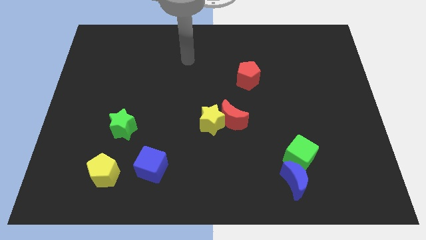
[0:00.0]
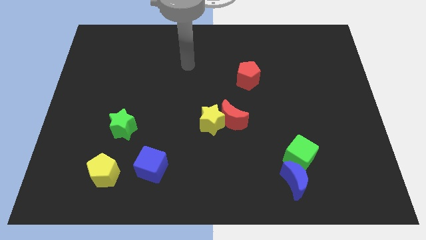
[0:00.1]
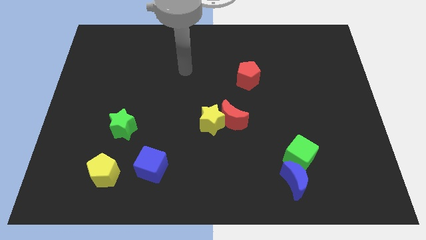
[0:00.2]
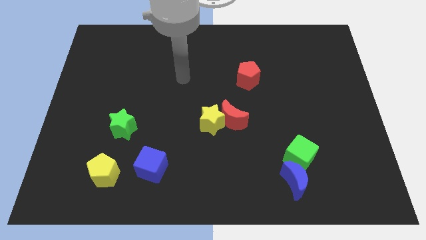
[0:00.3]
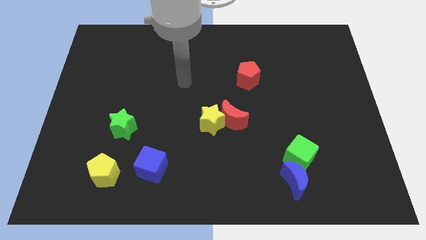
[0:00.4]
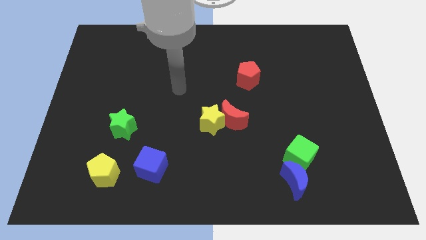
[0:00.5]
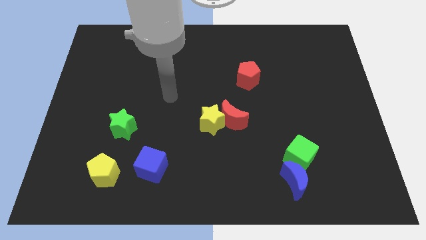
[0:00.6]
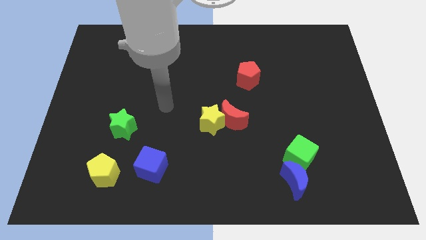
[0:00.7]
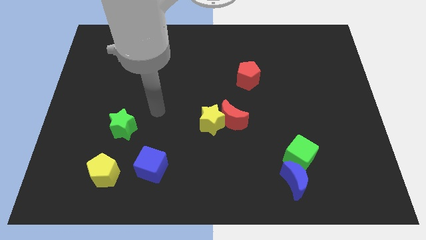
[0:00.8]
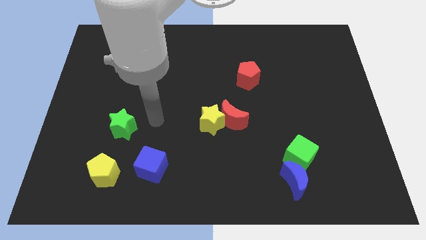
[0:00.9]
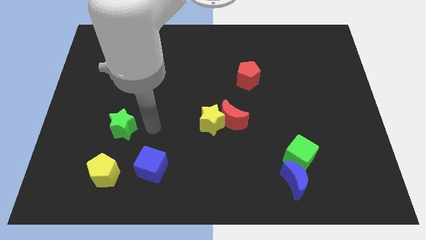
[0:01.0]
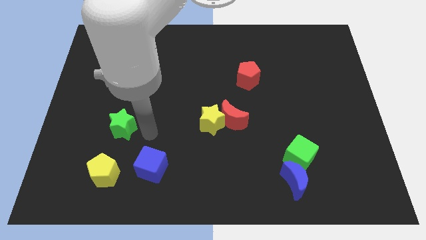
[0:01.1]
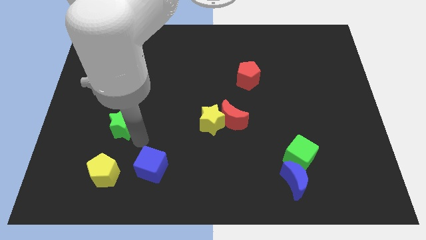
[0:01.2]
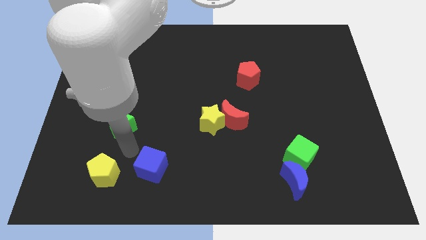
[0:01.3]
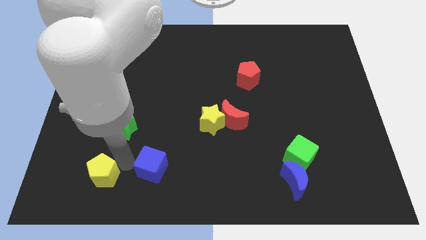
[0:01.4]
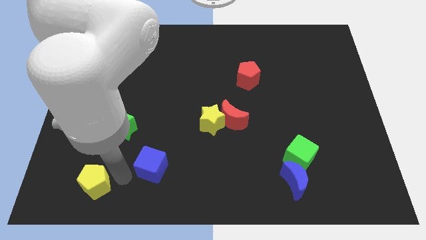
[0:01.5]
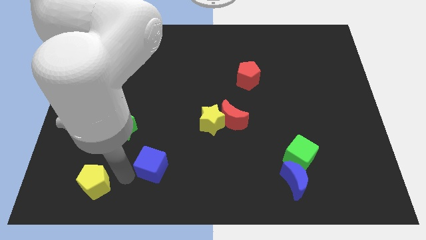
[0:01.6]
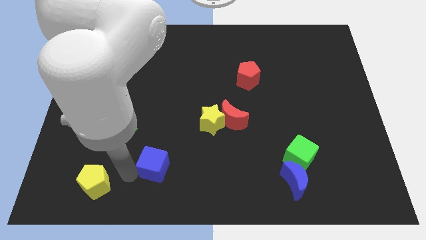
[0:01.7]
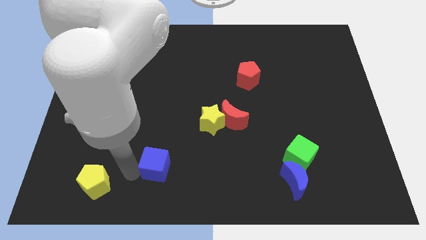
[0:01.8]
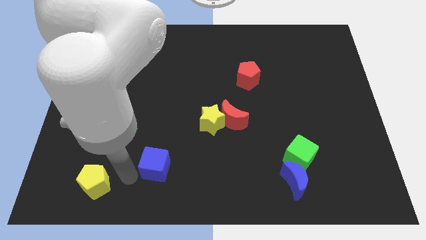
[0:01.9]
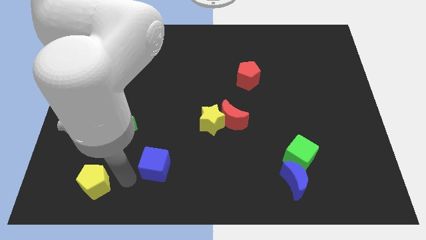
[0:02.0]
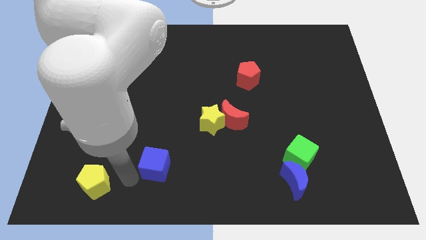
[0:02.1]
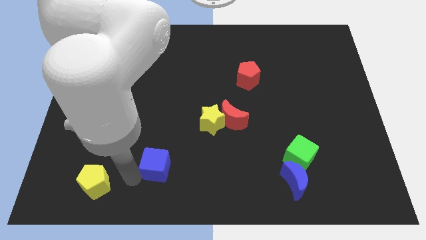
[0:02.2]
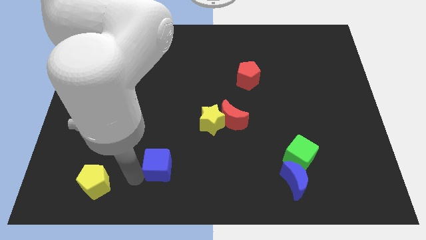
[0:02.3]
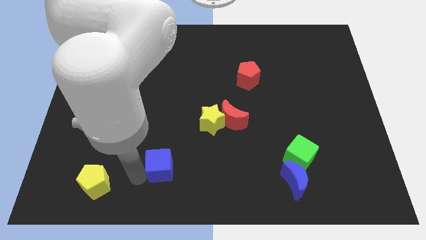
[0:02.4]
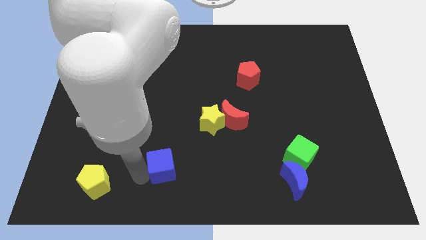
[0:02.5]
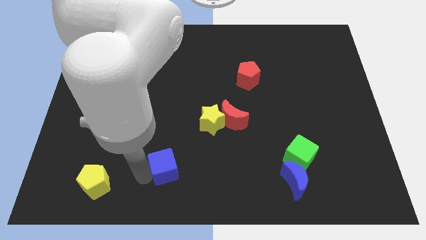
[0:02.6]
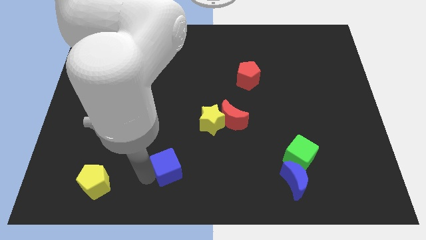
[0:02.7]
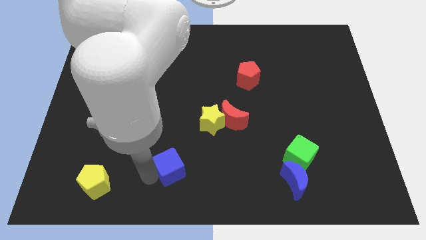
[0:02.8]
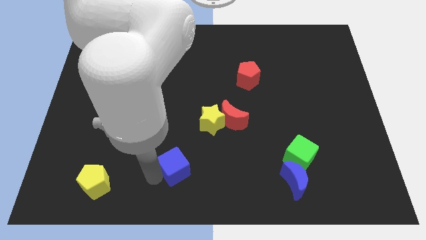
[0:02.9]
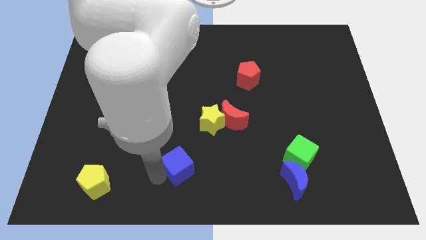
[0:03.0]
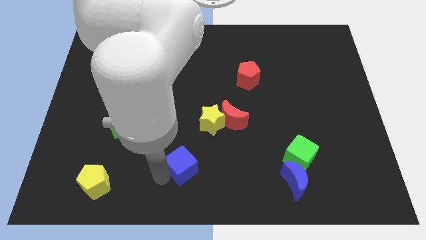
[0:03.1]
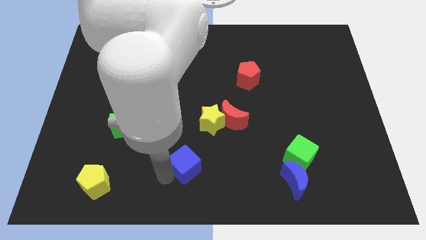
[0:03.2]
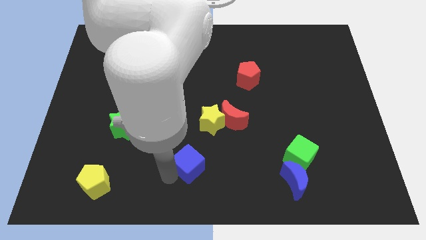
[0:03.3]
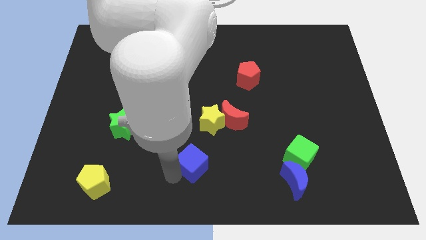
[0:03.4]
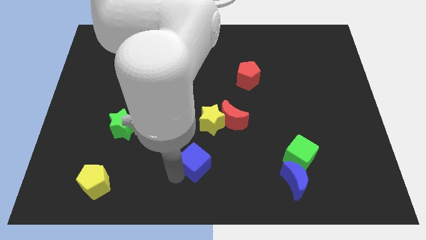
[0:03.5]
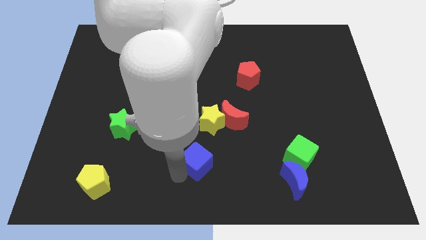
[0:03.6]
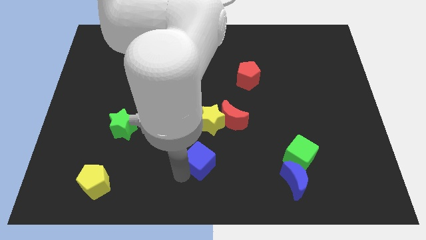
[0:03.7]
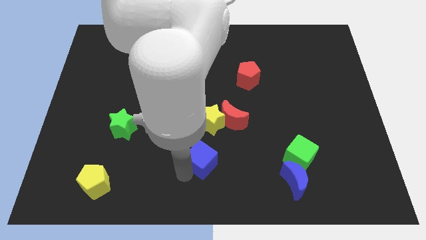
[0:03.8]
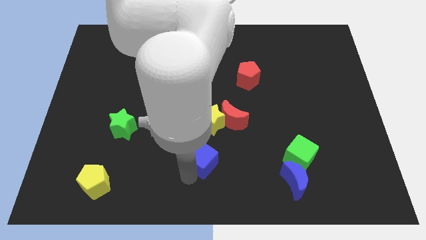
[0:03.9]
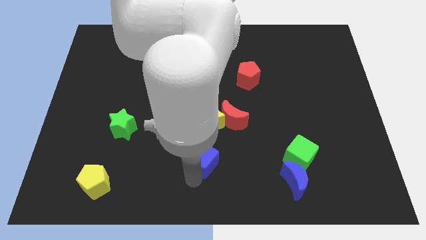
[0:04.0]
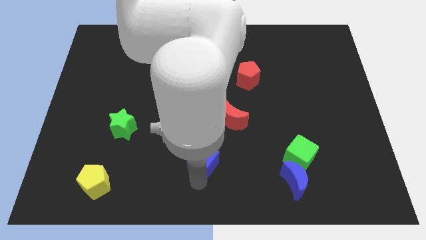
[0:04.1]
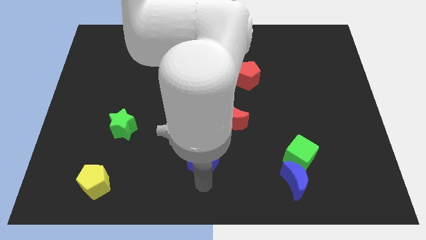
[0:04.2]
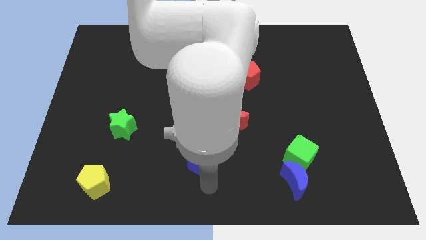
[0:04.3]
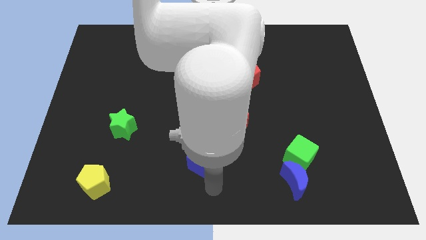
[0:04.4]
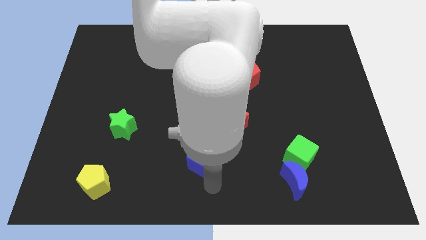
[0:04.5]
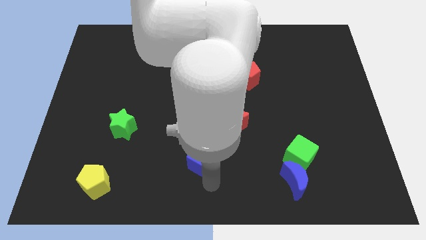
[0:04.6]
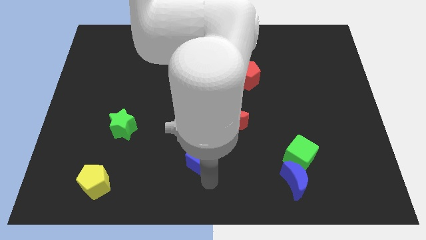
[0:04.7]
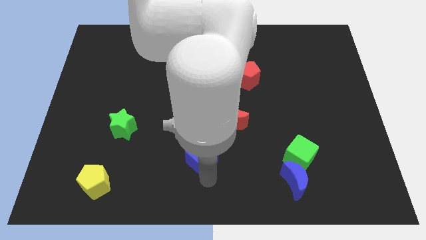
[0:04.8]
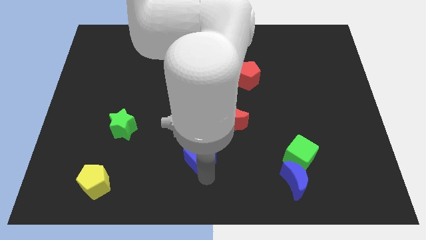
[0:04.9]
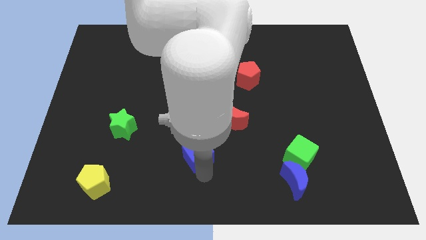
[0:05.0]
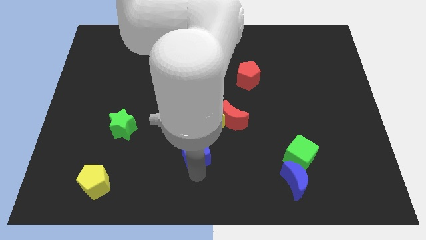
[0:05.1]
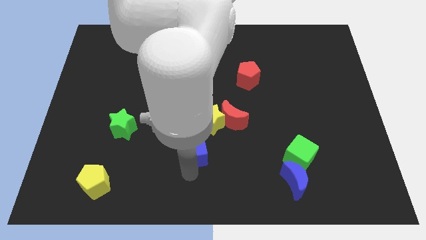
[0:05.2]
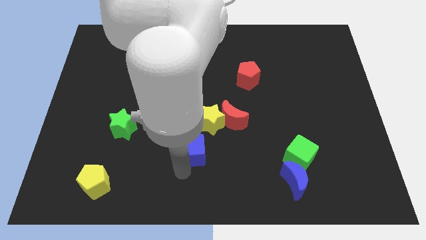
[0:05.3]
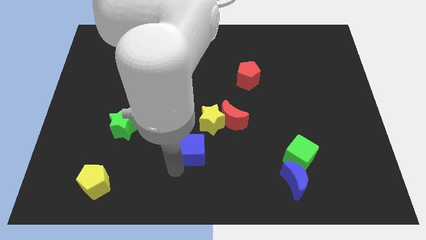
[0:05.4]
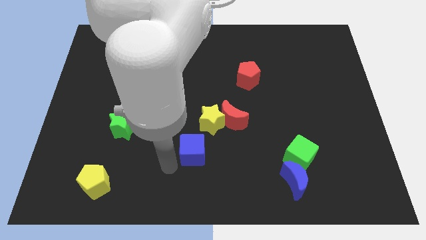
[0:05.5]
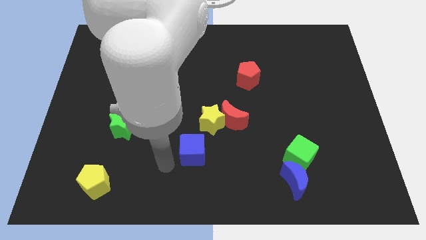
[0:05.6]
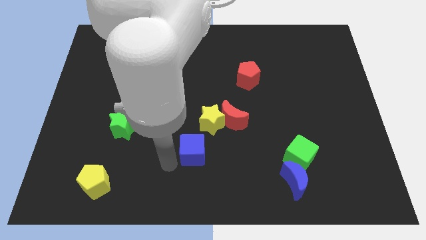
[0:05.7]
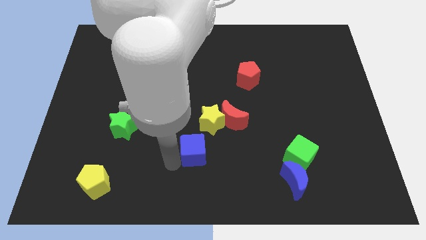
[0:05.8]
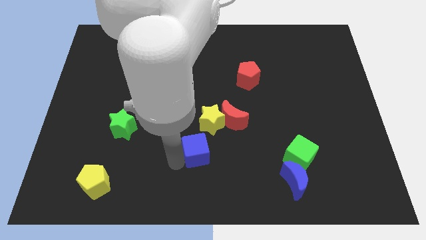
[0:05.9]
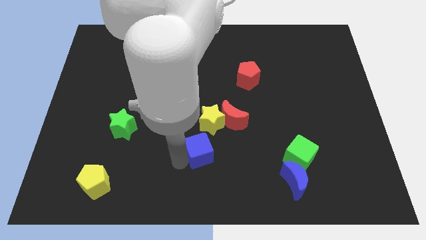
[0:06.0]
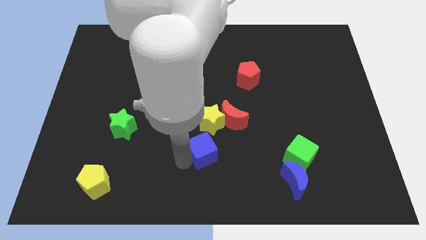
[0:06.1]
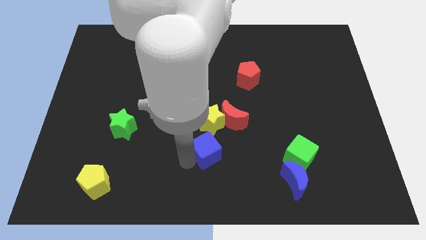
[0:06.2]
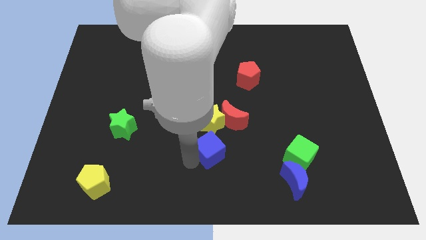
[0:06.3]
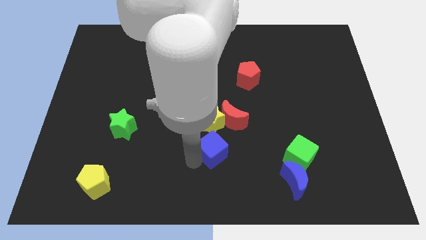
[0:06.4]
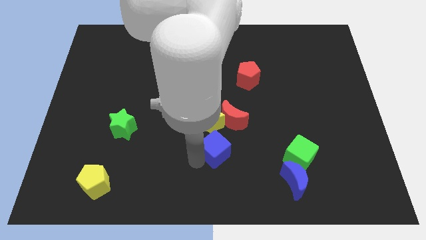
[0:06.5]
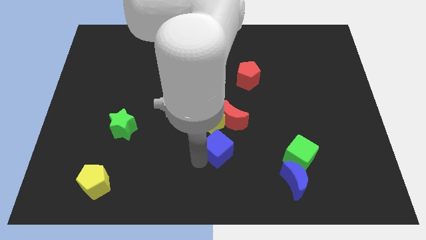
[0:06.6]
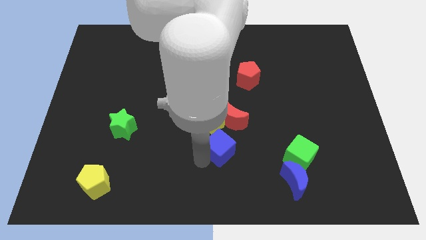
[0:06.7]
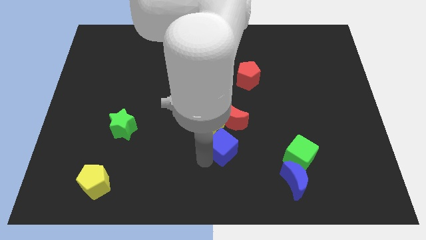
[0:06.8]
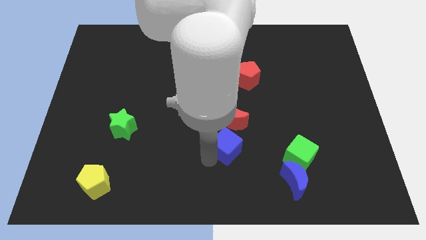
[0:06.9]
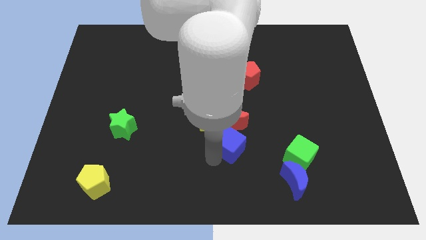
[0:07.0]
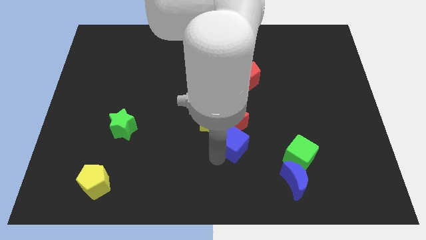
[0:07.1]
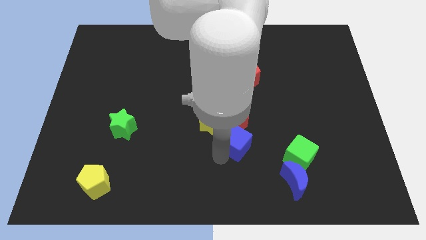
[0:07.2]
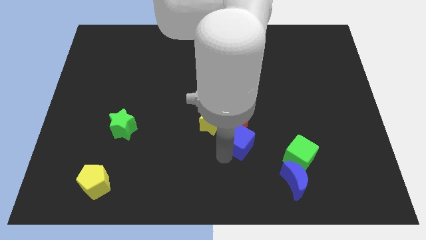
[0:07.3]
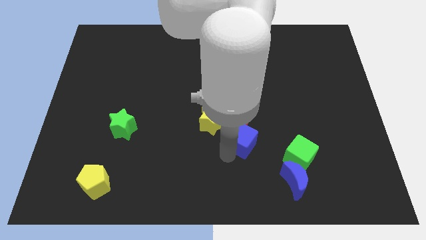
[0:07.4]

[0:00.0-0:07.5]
push the blue cube close to the red moon
